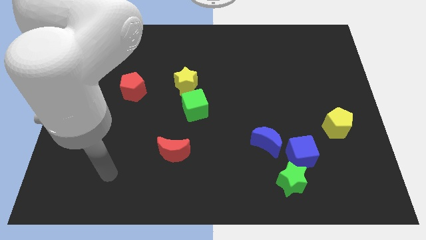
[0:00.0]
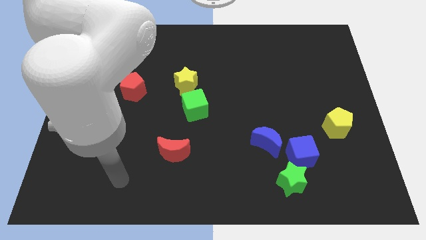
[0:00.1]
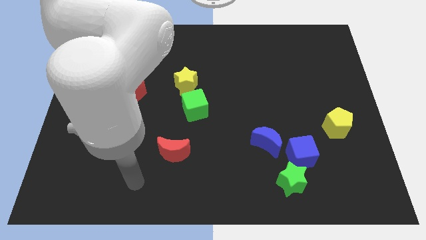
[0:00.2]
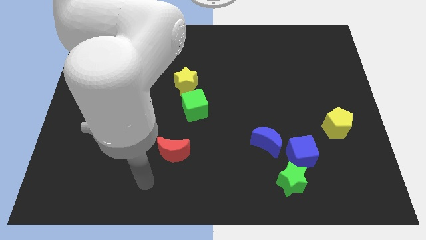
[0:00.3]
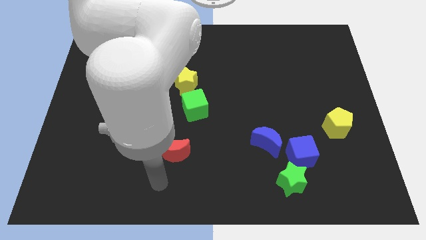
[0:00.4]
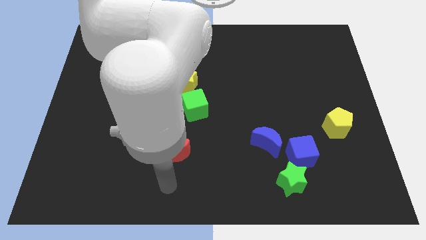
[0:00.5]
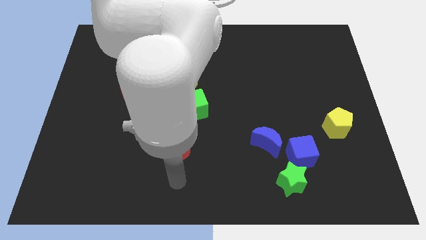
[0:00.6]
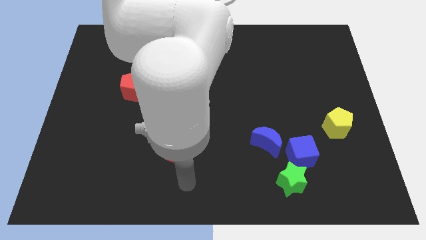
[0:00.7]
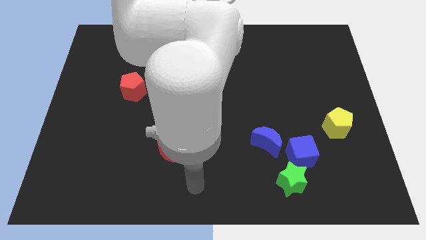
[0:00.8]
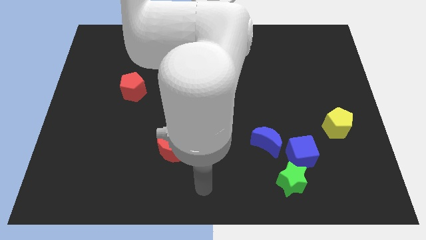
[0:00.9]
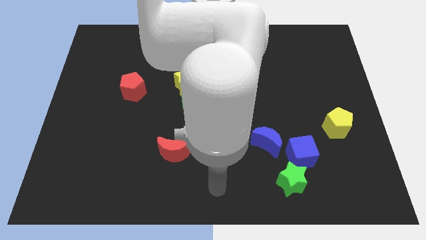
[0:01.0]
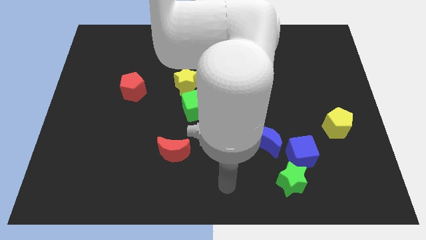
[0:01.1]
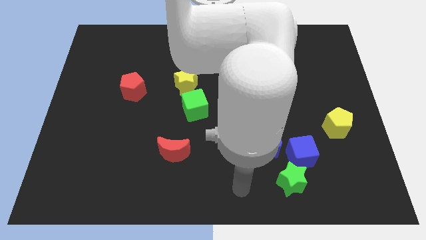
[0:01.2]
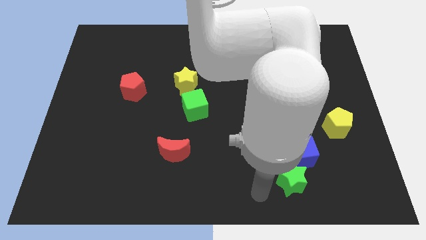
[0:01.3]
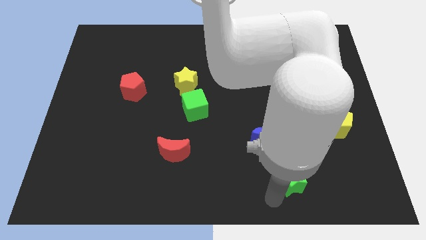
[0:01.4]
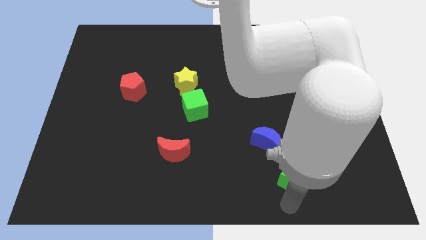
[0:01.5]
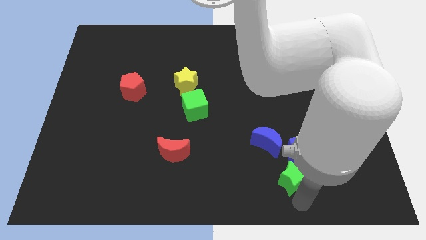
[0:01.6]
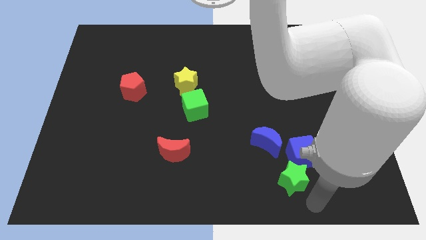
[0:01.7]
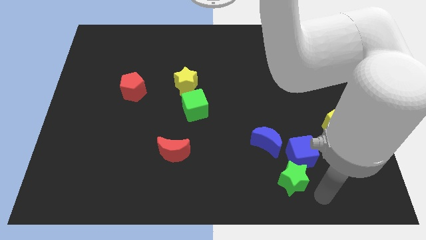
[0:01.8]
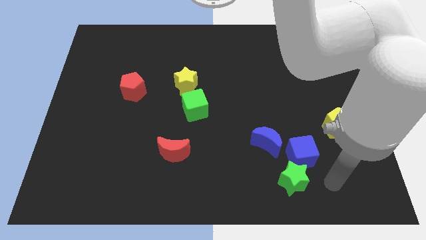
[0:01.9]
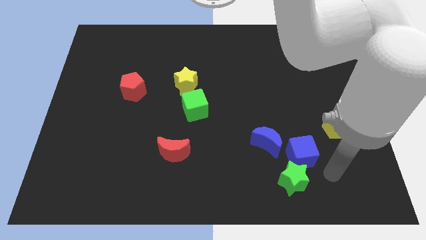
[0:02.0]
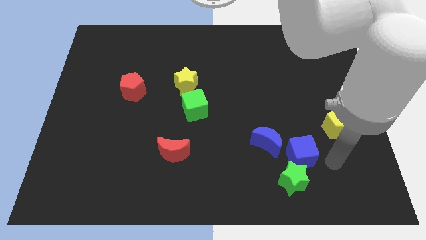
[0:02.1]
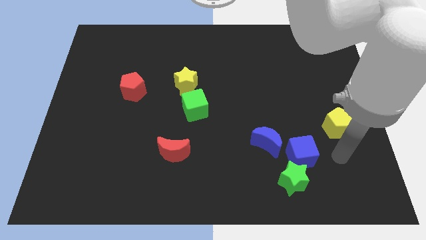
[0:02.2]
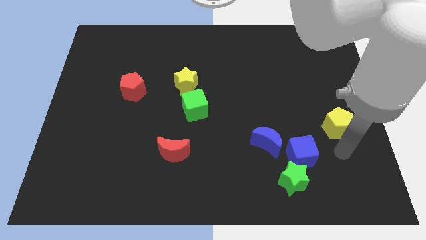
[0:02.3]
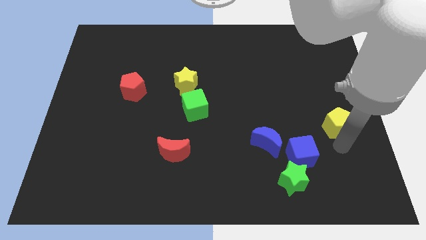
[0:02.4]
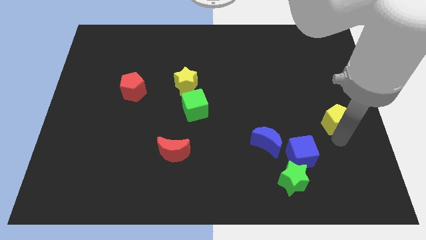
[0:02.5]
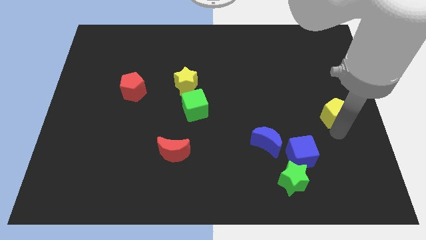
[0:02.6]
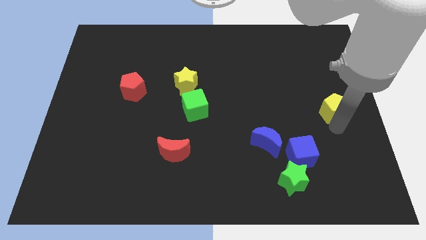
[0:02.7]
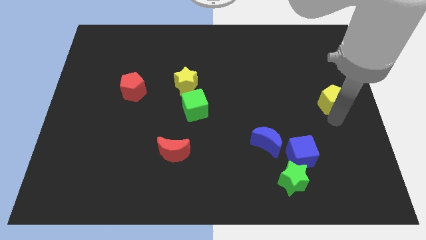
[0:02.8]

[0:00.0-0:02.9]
push the yellow pentagon slightly up

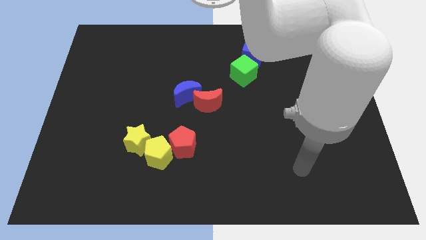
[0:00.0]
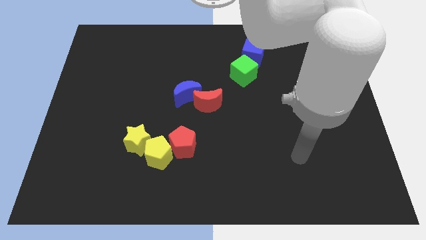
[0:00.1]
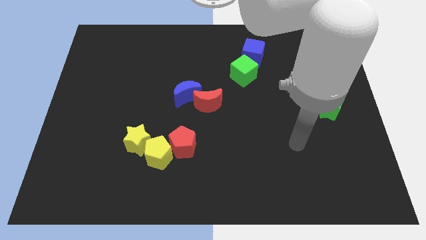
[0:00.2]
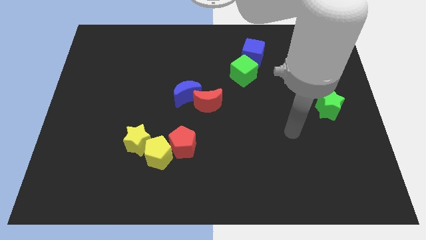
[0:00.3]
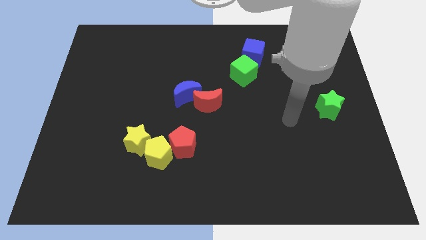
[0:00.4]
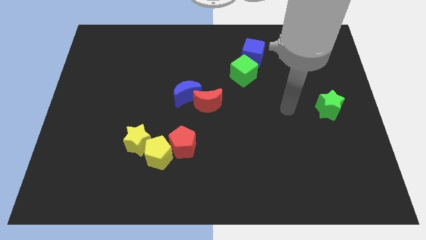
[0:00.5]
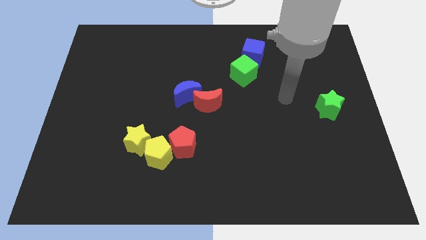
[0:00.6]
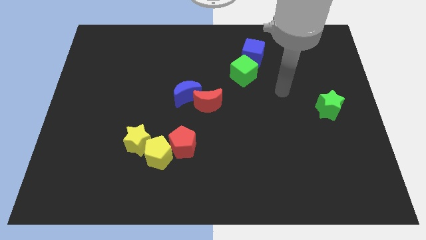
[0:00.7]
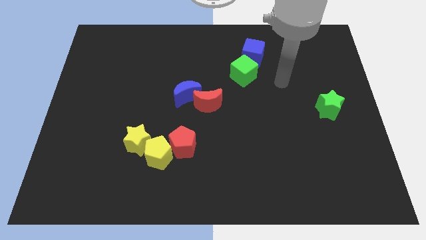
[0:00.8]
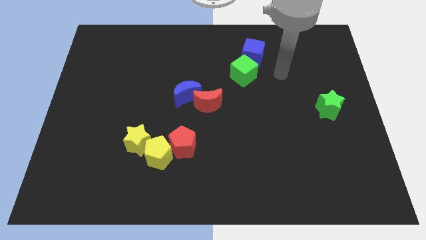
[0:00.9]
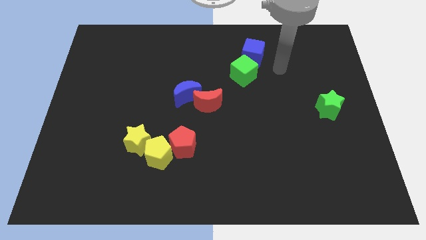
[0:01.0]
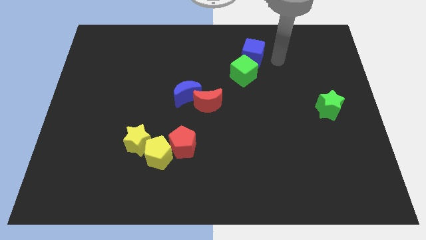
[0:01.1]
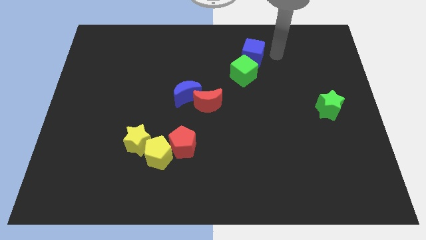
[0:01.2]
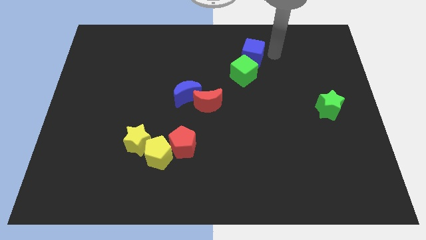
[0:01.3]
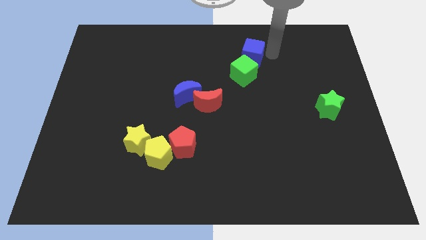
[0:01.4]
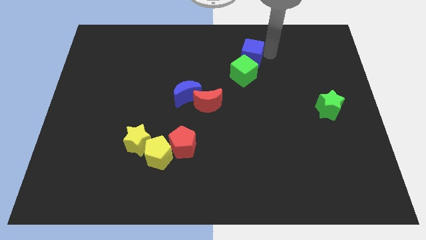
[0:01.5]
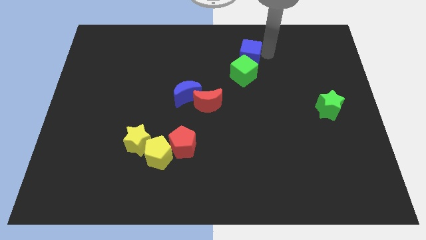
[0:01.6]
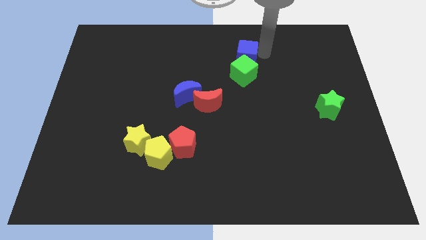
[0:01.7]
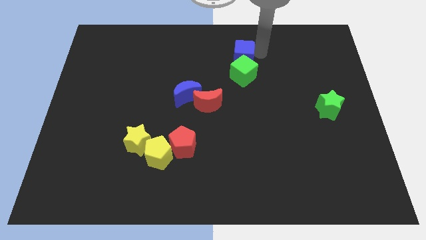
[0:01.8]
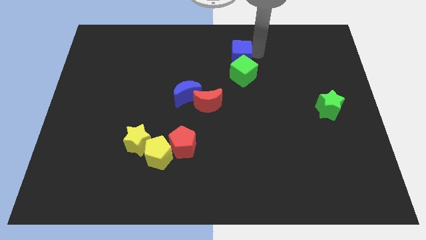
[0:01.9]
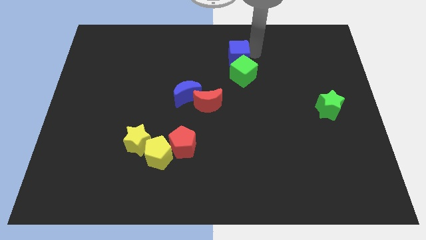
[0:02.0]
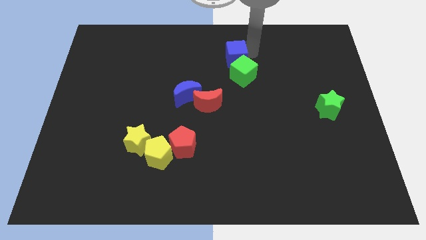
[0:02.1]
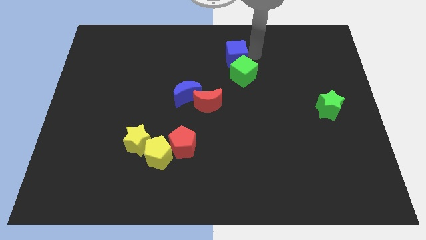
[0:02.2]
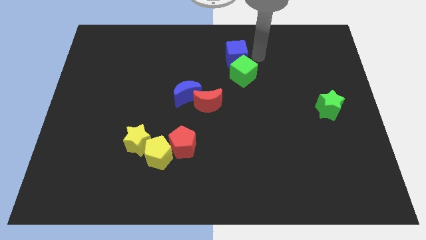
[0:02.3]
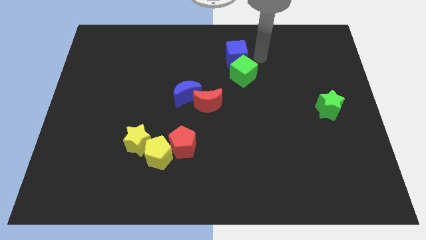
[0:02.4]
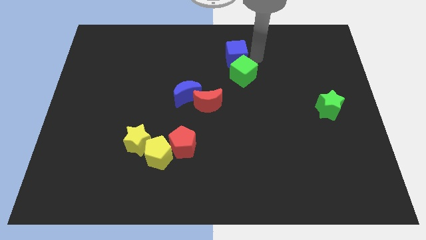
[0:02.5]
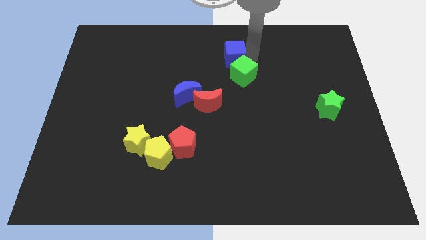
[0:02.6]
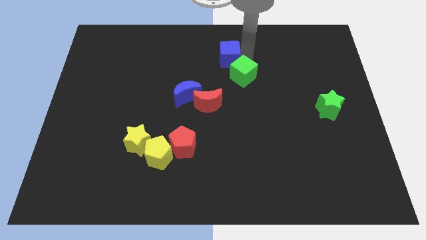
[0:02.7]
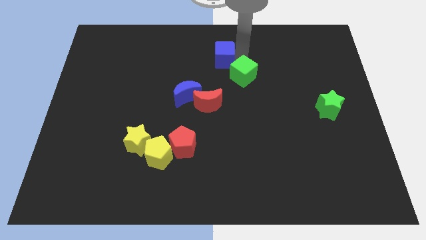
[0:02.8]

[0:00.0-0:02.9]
move the blue cube to the left slightly

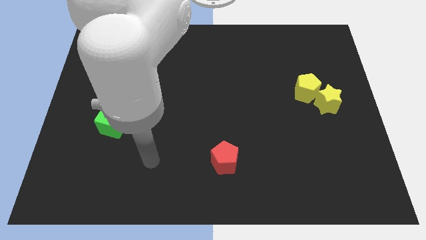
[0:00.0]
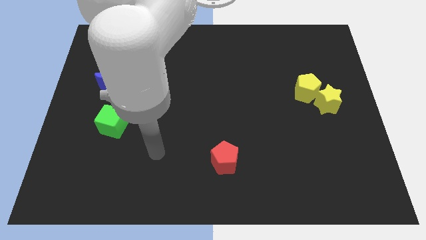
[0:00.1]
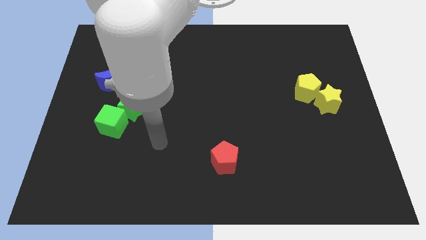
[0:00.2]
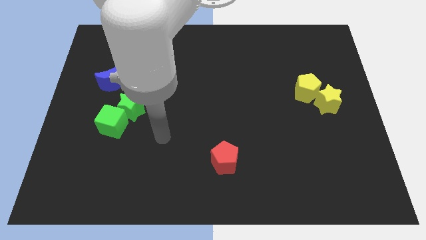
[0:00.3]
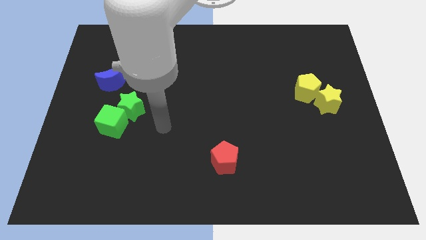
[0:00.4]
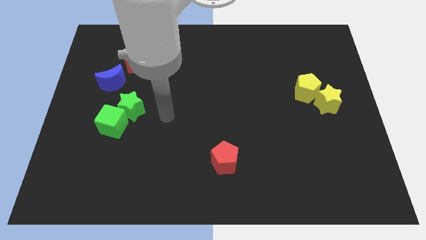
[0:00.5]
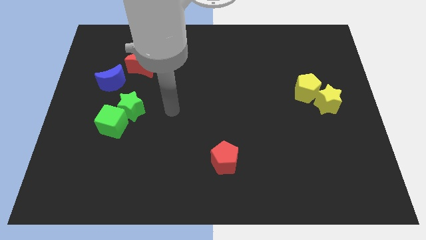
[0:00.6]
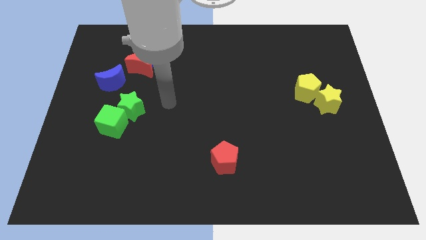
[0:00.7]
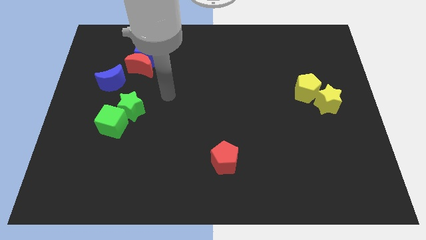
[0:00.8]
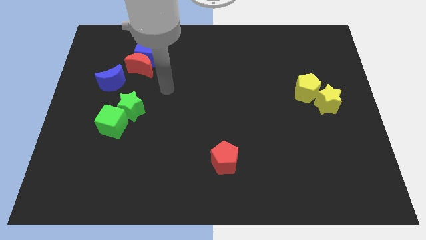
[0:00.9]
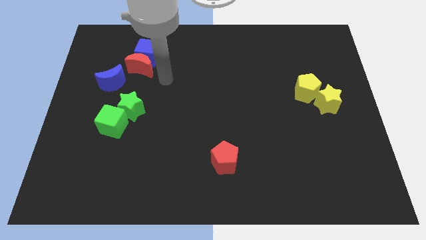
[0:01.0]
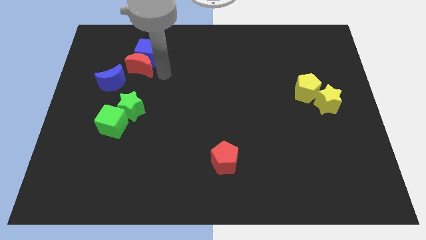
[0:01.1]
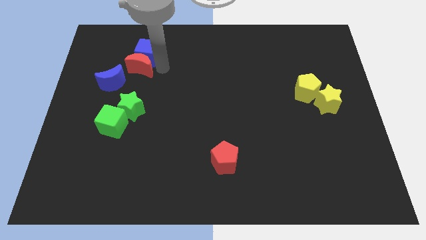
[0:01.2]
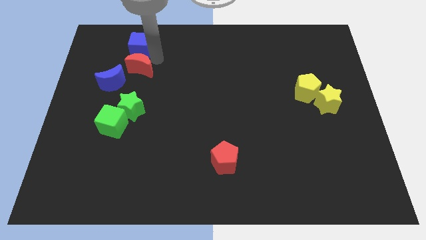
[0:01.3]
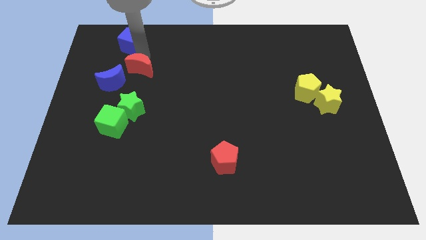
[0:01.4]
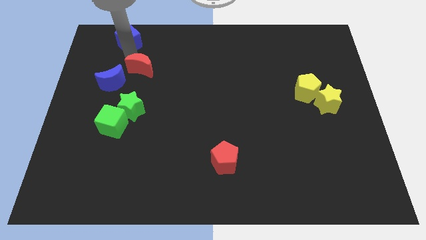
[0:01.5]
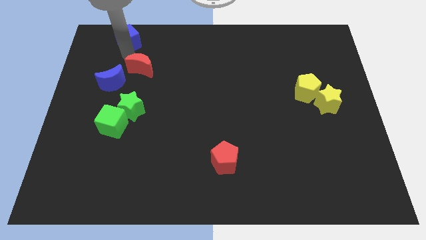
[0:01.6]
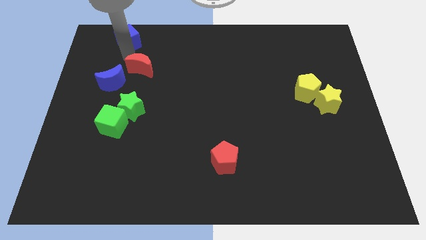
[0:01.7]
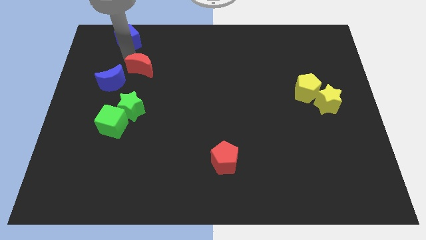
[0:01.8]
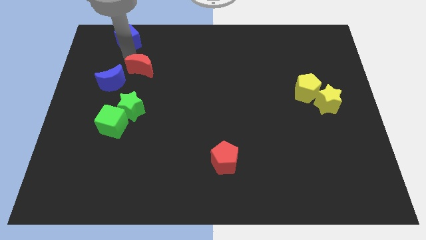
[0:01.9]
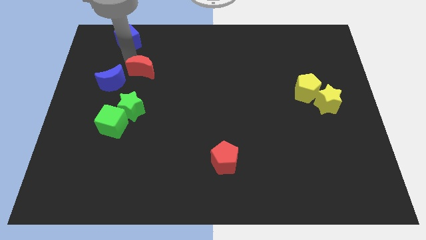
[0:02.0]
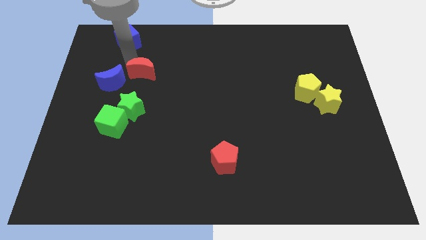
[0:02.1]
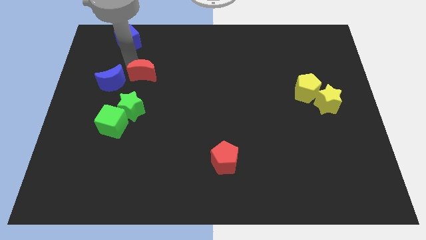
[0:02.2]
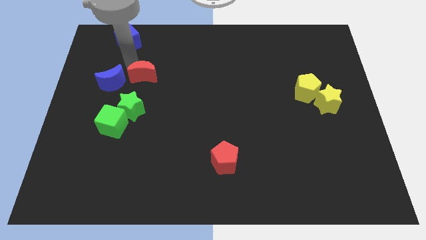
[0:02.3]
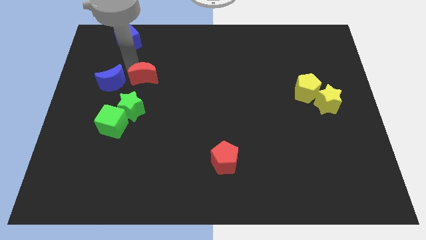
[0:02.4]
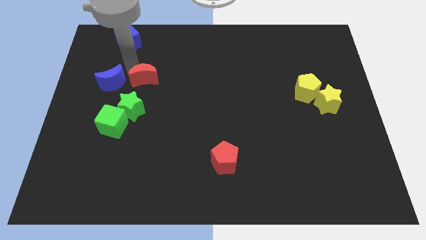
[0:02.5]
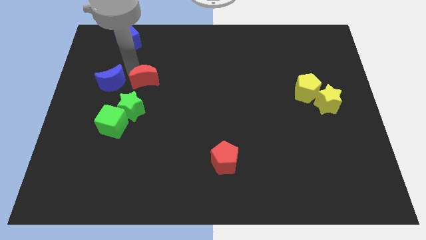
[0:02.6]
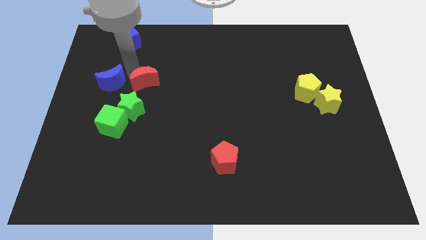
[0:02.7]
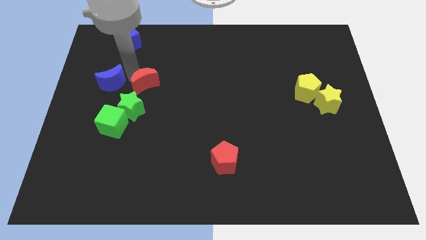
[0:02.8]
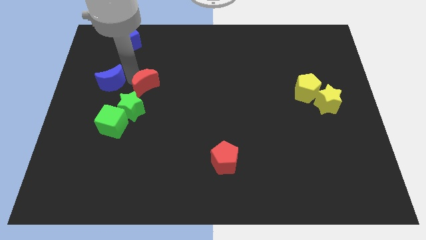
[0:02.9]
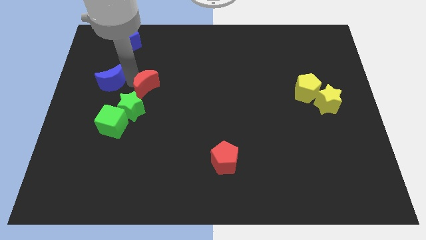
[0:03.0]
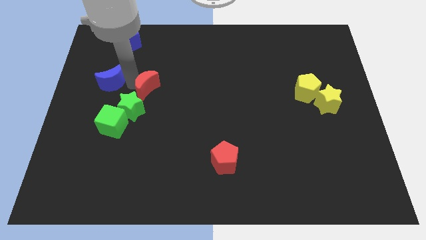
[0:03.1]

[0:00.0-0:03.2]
move the red moon somewhat downwards
